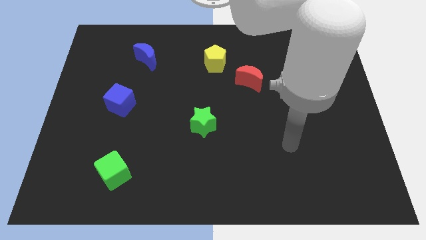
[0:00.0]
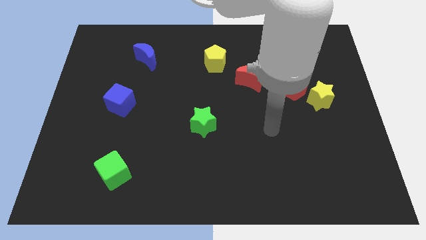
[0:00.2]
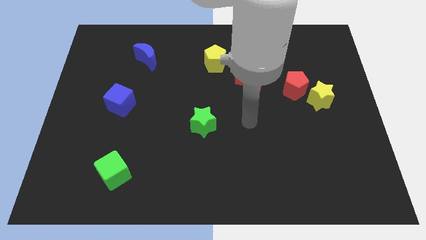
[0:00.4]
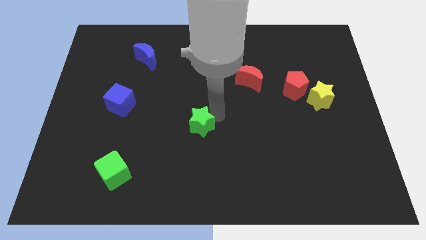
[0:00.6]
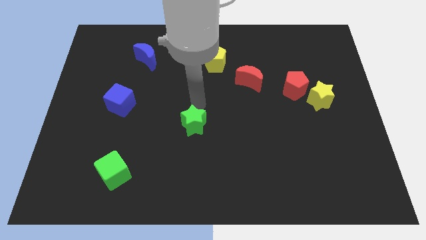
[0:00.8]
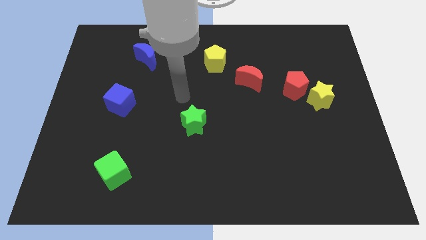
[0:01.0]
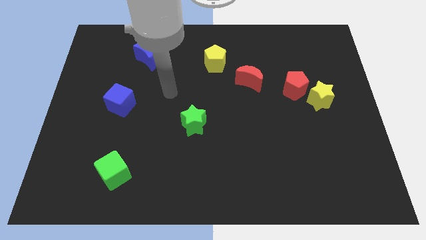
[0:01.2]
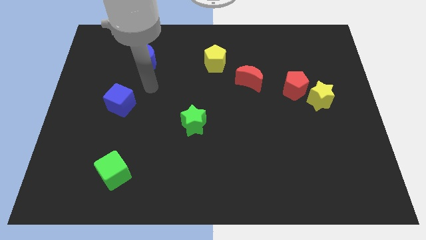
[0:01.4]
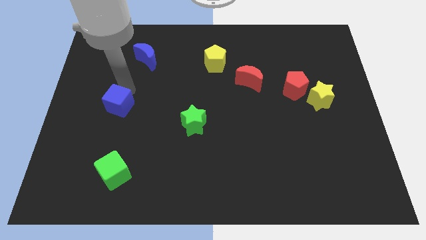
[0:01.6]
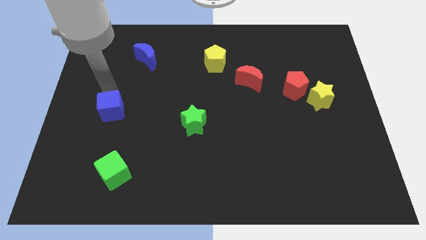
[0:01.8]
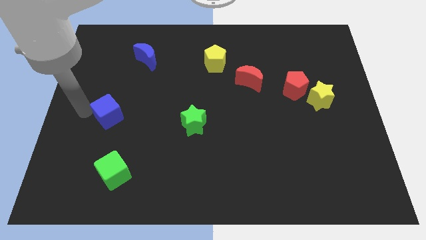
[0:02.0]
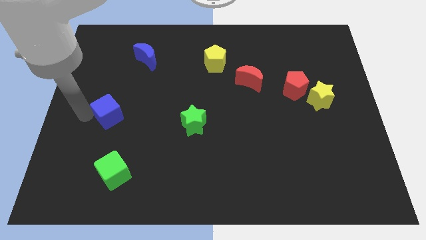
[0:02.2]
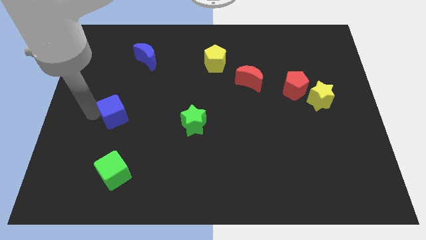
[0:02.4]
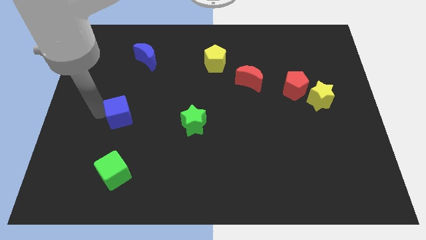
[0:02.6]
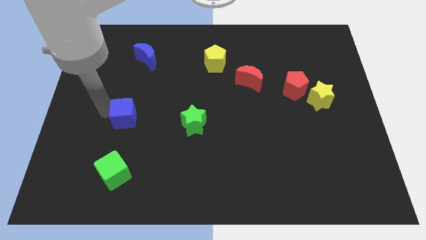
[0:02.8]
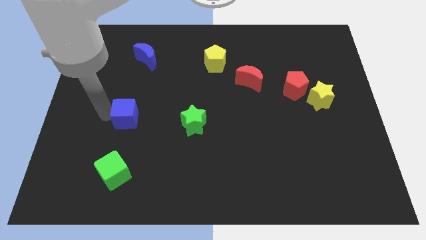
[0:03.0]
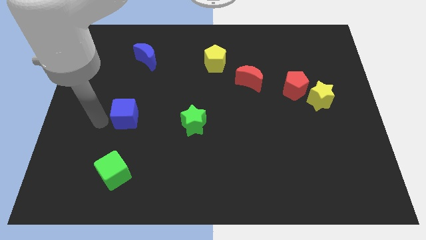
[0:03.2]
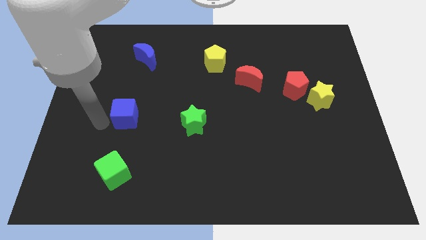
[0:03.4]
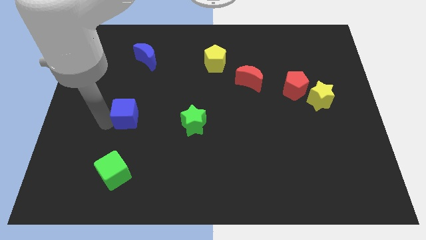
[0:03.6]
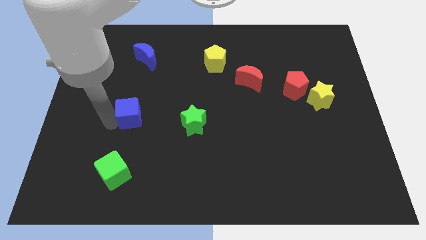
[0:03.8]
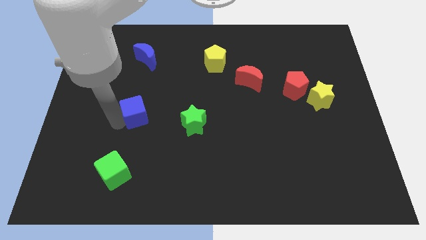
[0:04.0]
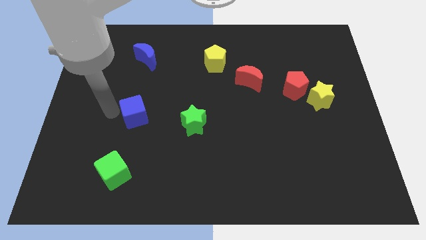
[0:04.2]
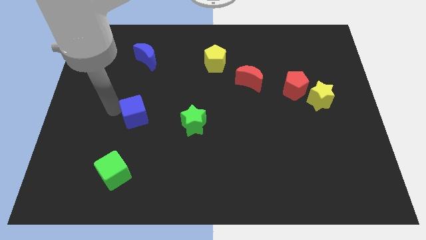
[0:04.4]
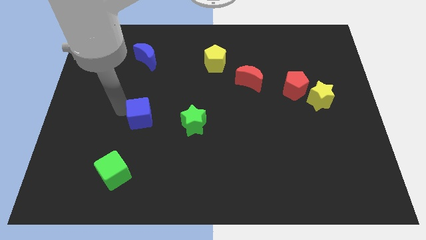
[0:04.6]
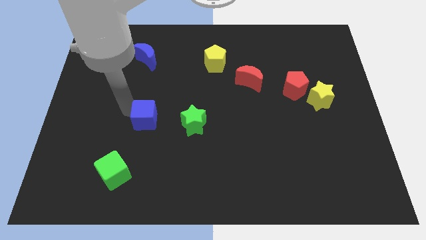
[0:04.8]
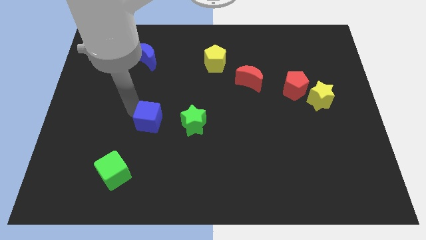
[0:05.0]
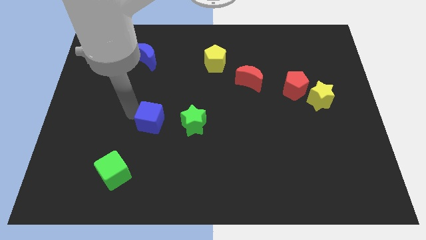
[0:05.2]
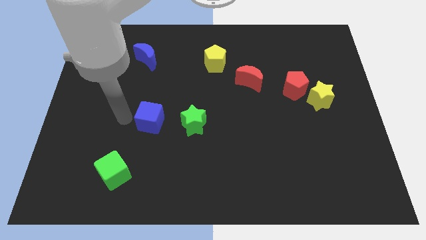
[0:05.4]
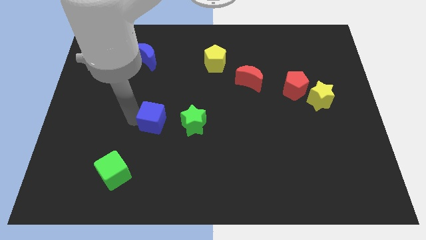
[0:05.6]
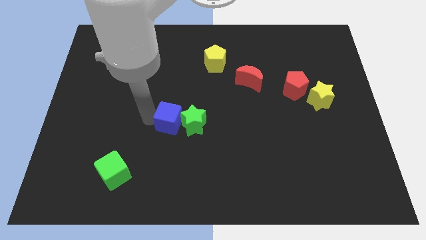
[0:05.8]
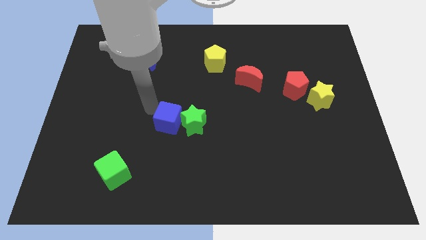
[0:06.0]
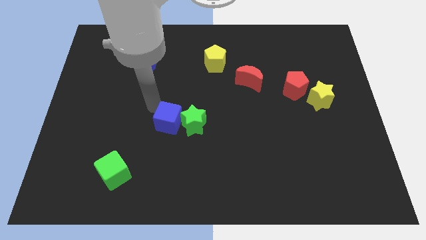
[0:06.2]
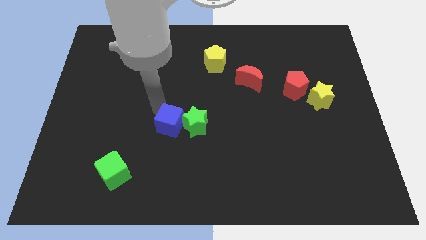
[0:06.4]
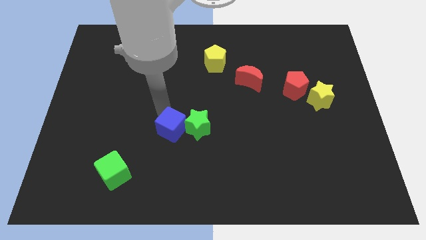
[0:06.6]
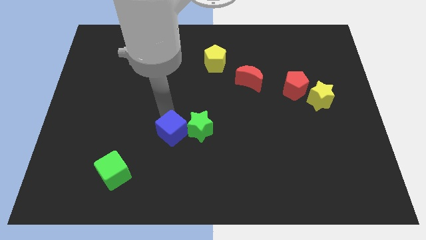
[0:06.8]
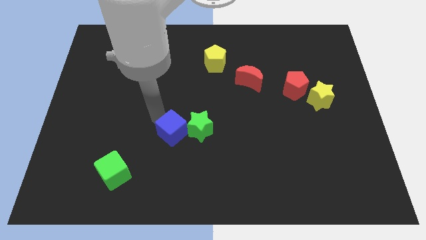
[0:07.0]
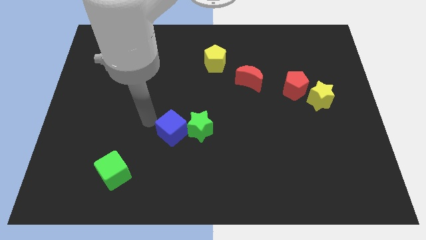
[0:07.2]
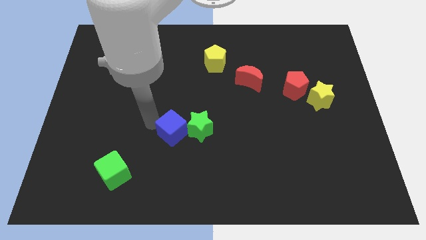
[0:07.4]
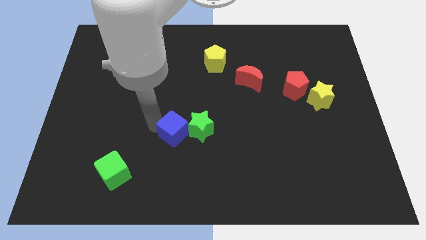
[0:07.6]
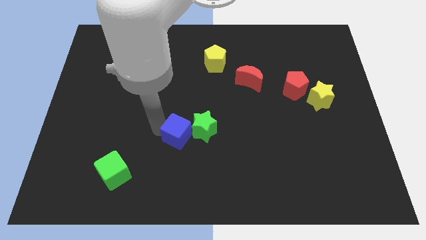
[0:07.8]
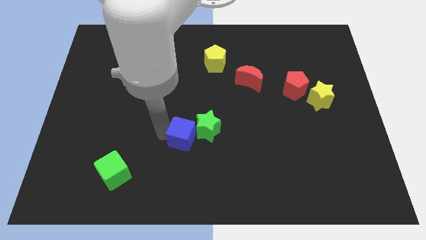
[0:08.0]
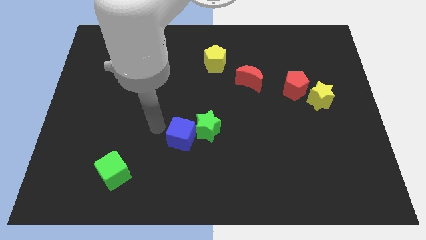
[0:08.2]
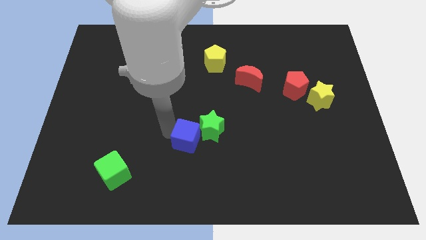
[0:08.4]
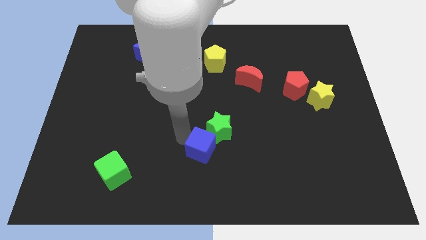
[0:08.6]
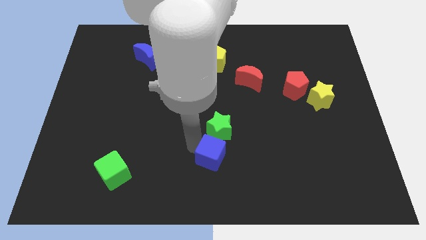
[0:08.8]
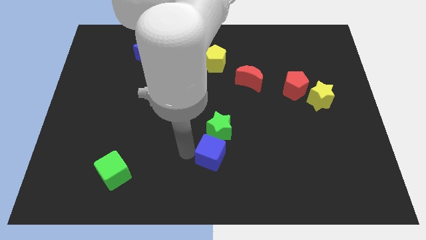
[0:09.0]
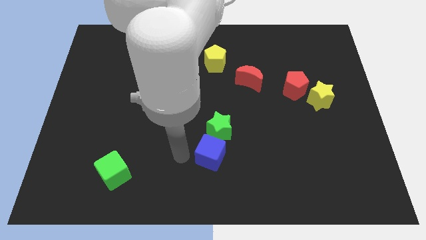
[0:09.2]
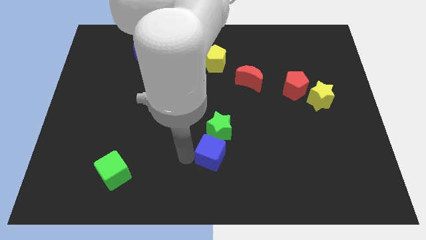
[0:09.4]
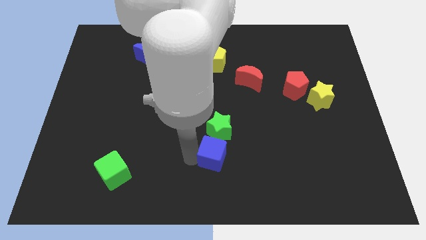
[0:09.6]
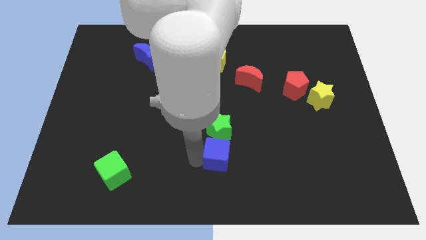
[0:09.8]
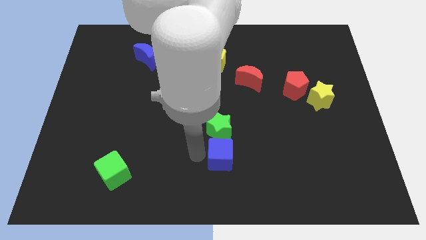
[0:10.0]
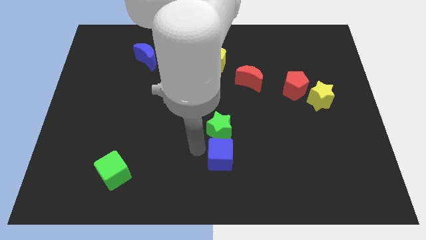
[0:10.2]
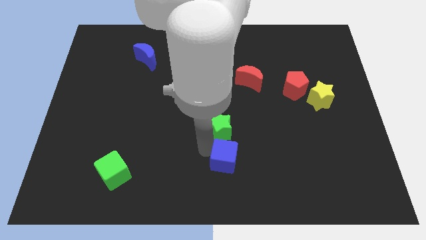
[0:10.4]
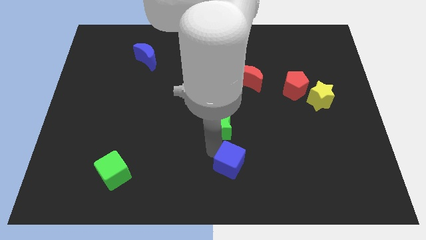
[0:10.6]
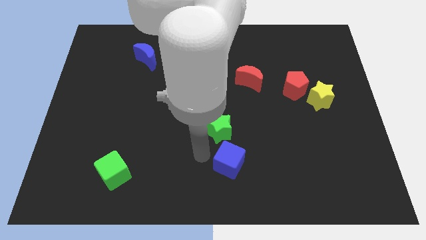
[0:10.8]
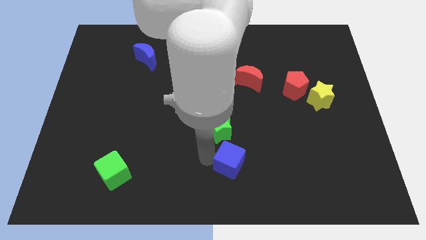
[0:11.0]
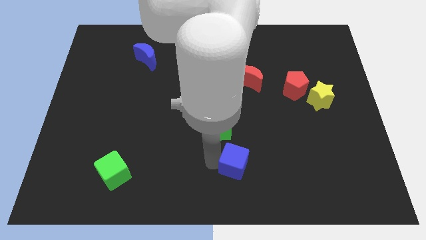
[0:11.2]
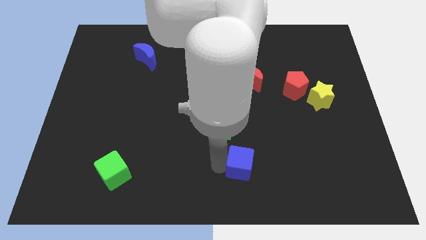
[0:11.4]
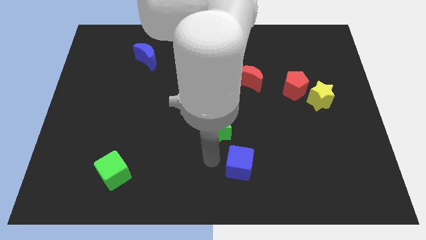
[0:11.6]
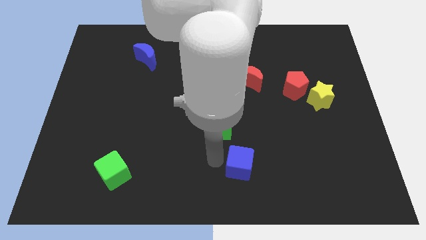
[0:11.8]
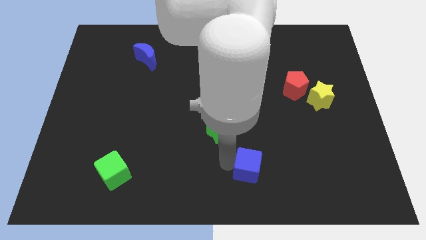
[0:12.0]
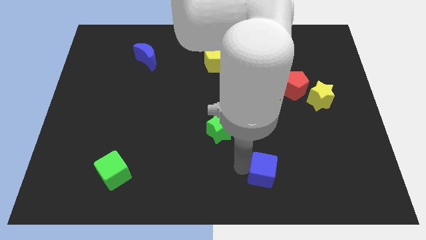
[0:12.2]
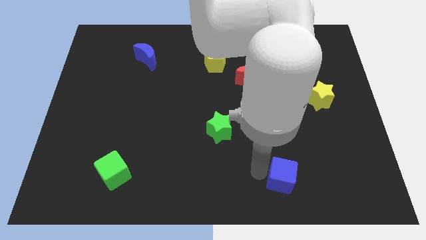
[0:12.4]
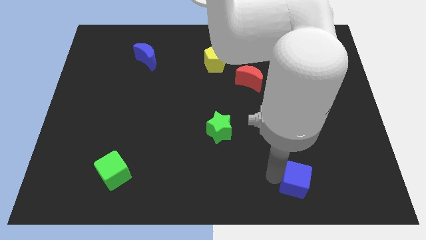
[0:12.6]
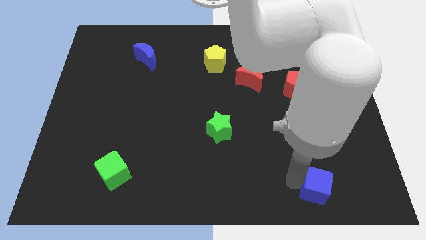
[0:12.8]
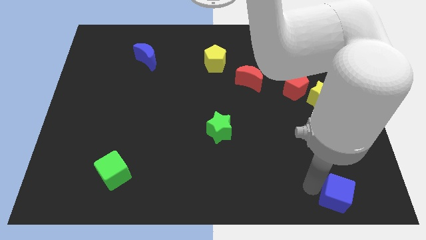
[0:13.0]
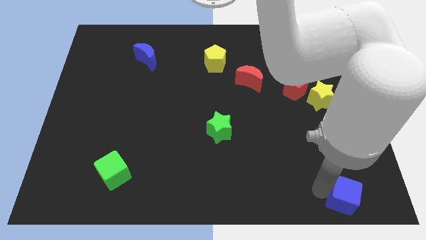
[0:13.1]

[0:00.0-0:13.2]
move the blue cube to the bottom right of the board

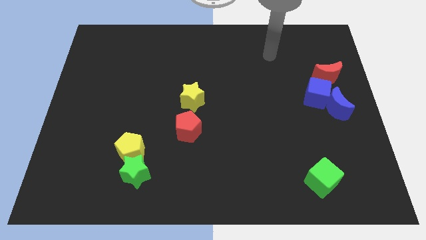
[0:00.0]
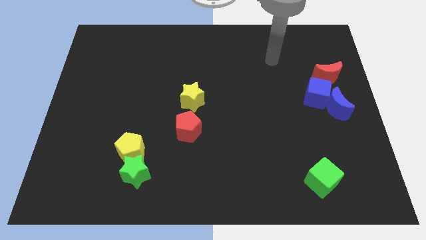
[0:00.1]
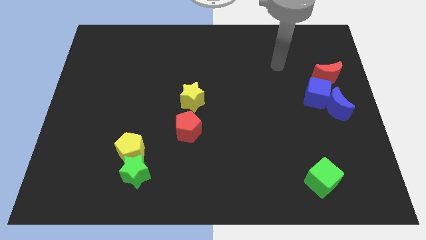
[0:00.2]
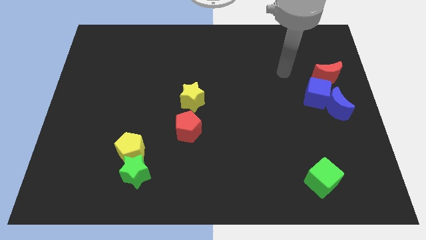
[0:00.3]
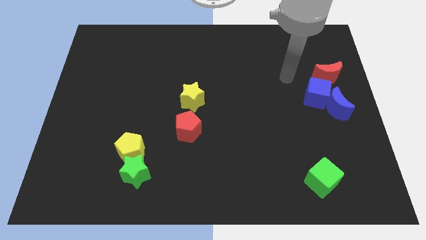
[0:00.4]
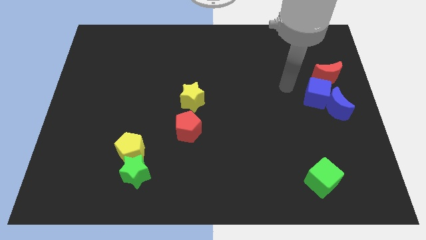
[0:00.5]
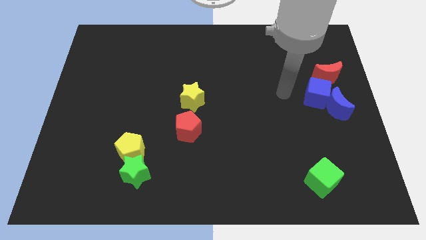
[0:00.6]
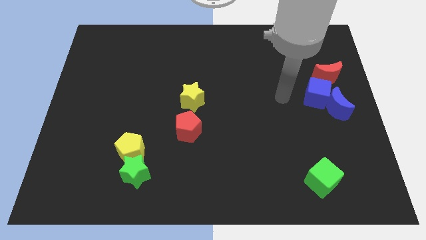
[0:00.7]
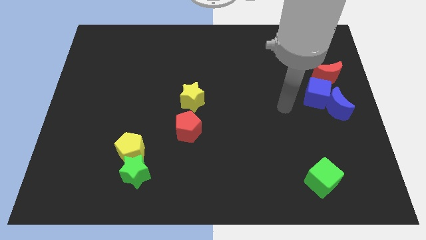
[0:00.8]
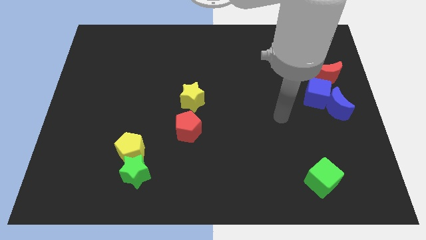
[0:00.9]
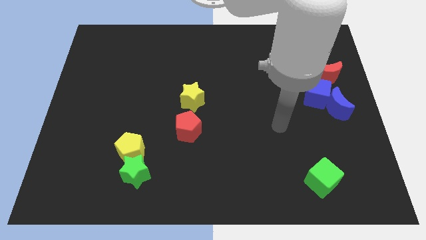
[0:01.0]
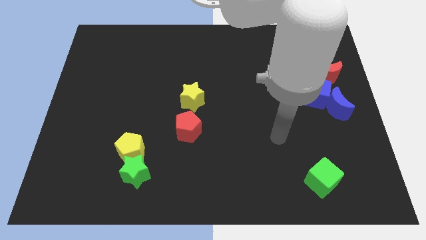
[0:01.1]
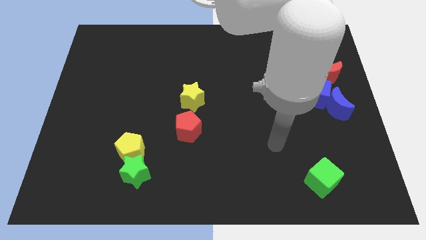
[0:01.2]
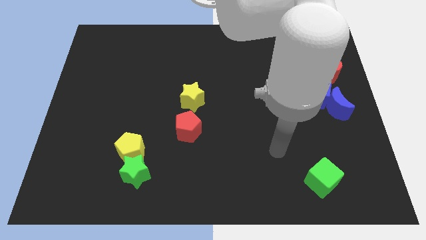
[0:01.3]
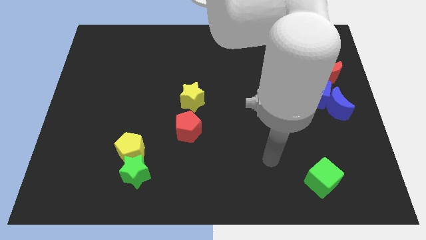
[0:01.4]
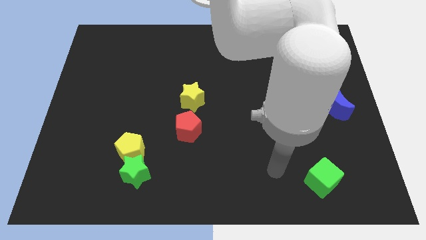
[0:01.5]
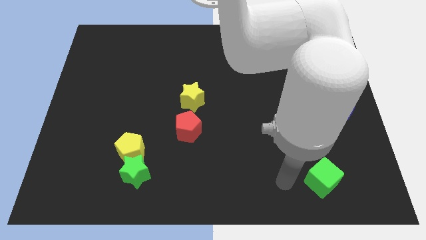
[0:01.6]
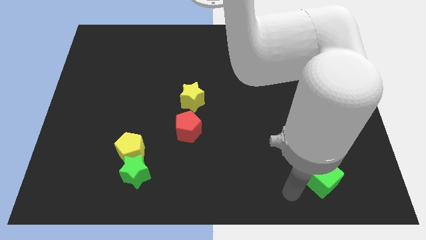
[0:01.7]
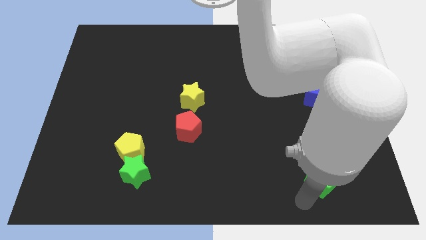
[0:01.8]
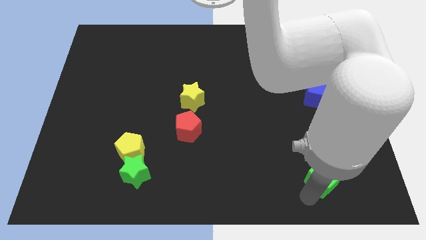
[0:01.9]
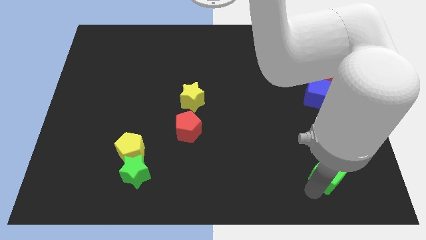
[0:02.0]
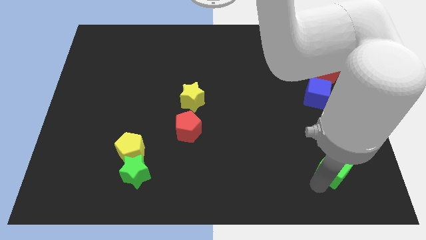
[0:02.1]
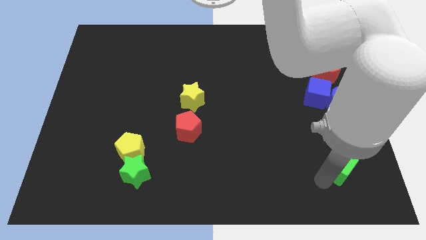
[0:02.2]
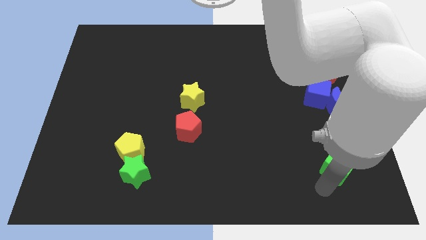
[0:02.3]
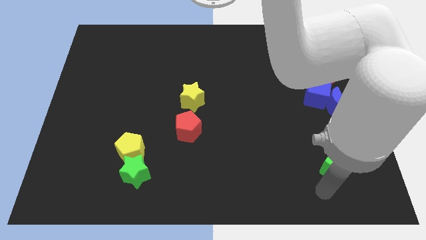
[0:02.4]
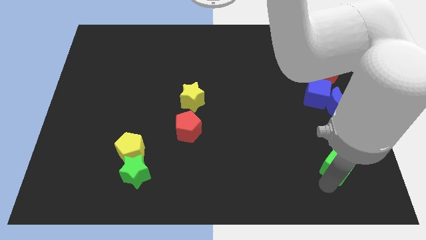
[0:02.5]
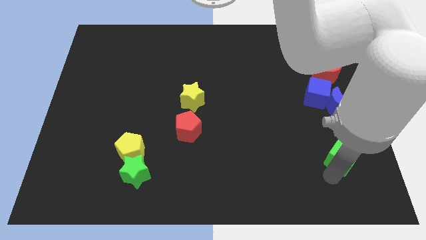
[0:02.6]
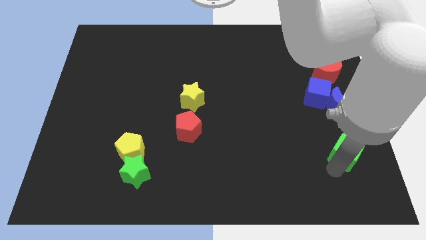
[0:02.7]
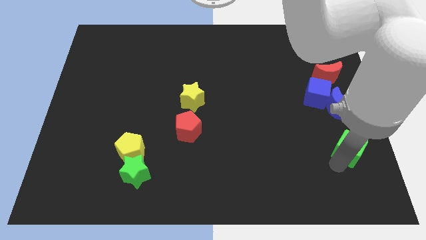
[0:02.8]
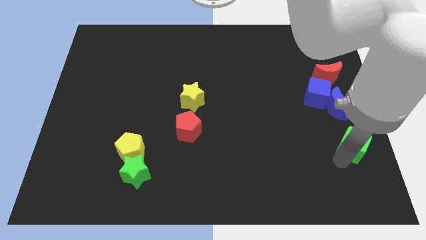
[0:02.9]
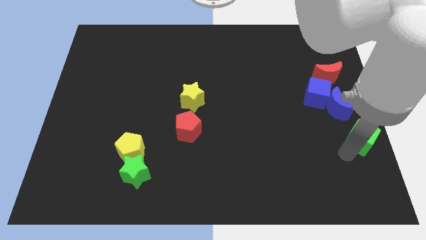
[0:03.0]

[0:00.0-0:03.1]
slide the green cube to the right side of the board
